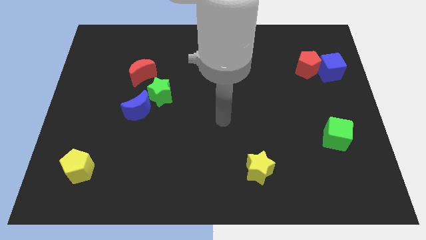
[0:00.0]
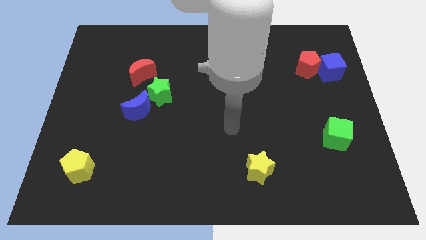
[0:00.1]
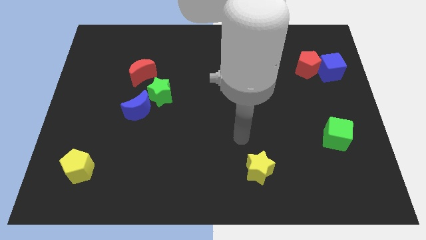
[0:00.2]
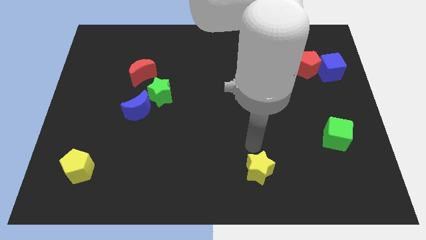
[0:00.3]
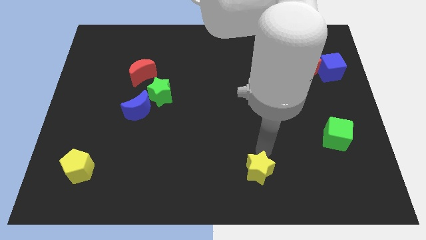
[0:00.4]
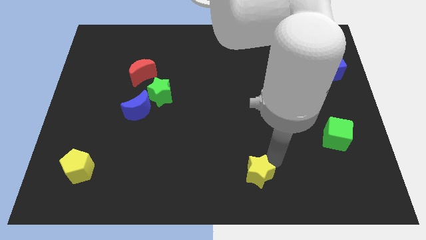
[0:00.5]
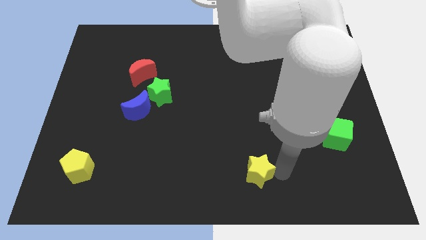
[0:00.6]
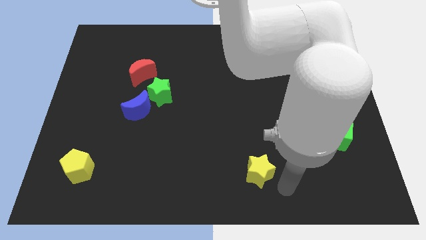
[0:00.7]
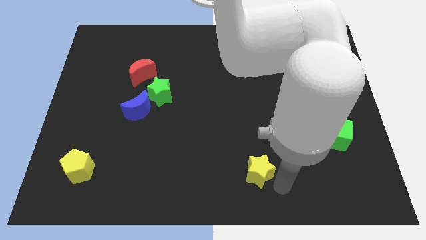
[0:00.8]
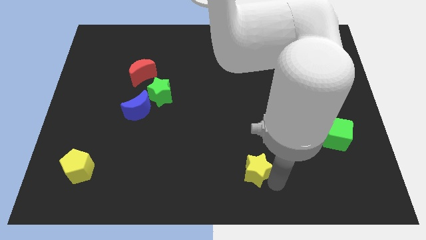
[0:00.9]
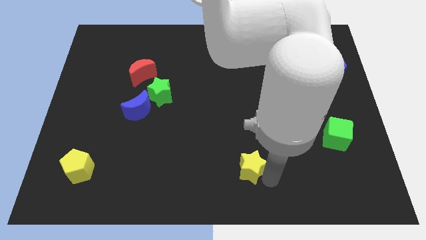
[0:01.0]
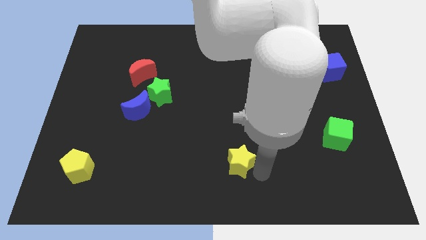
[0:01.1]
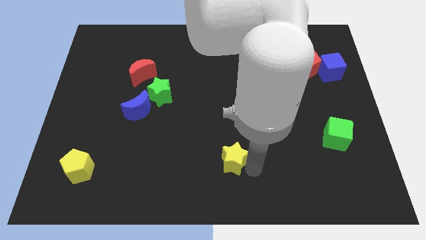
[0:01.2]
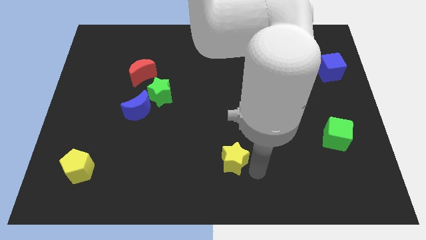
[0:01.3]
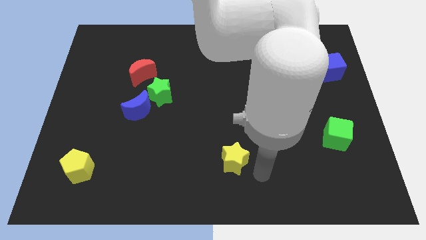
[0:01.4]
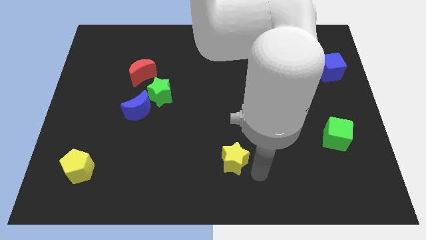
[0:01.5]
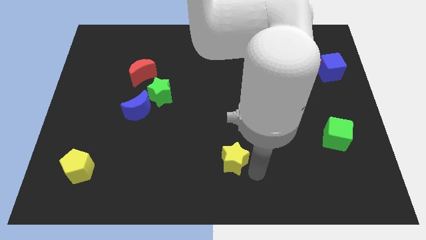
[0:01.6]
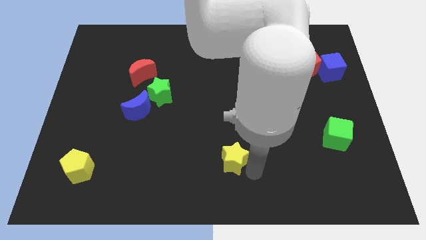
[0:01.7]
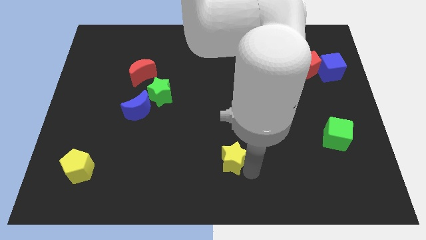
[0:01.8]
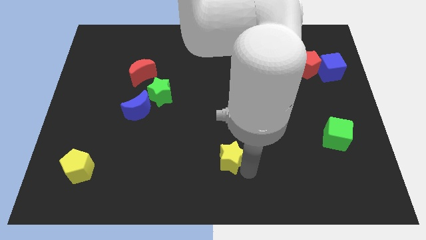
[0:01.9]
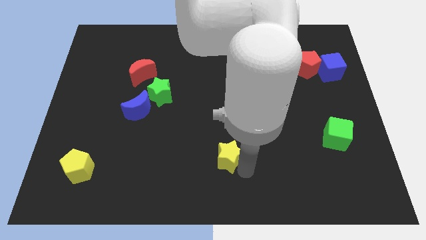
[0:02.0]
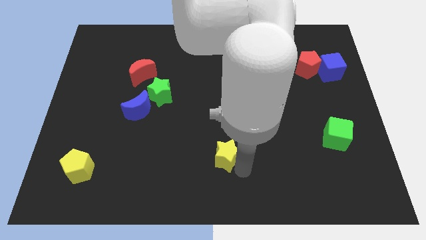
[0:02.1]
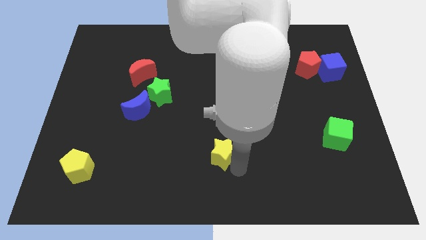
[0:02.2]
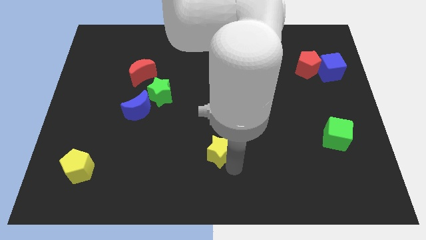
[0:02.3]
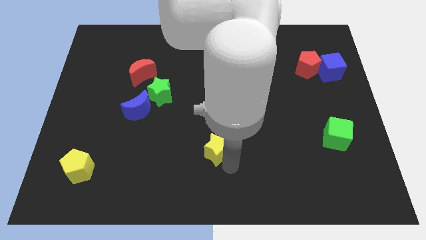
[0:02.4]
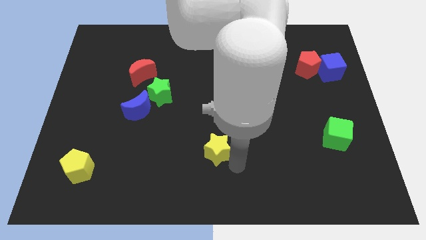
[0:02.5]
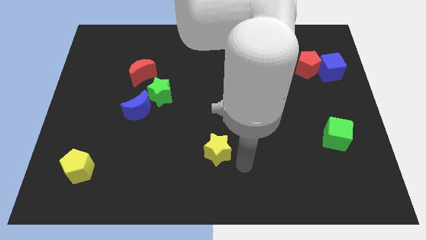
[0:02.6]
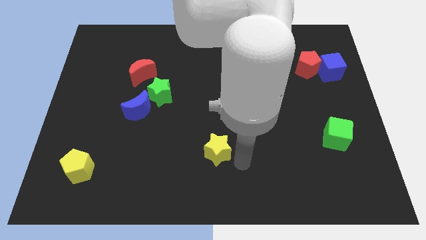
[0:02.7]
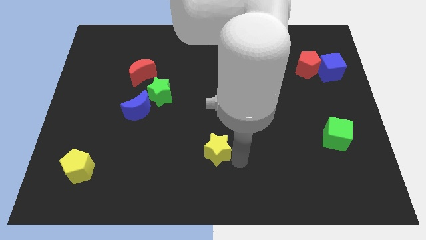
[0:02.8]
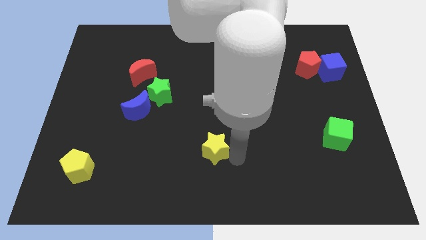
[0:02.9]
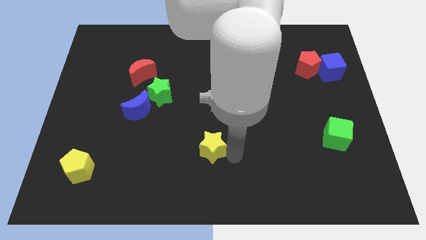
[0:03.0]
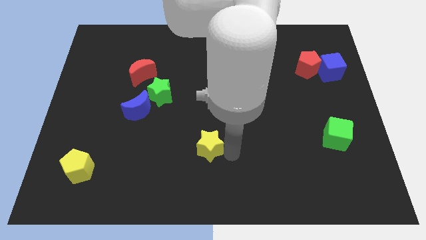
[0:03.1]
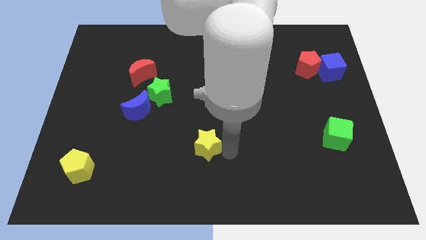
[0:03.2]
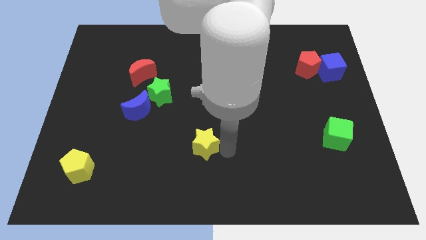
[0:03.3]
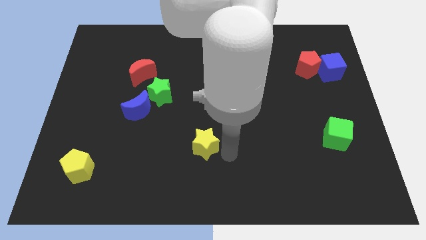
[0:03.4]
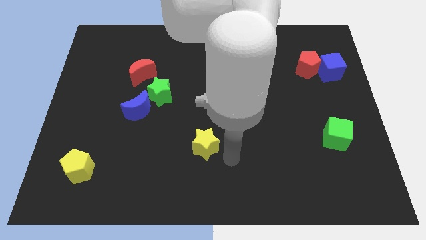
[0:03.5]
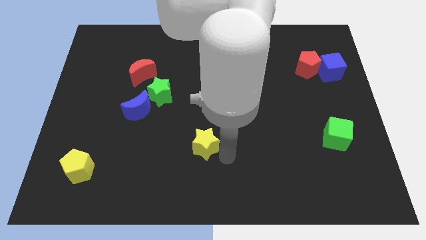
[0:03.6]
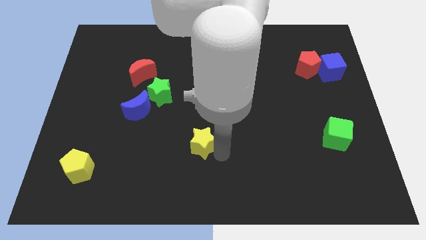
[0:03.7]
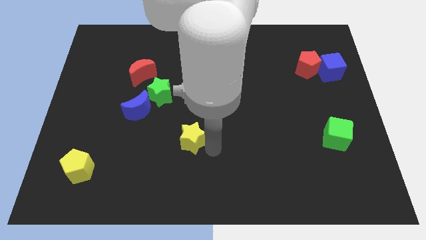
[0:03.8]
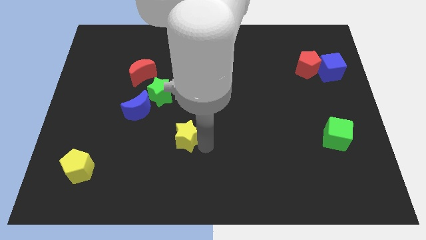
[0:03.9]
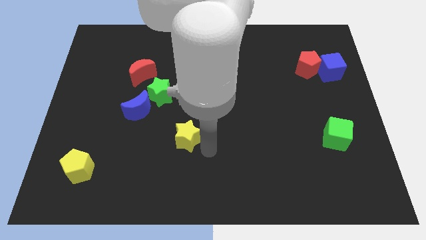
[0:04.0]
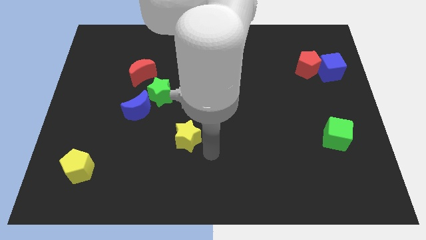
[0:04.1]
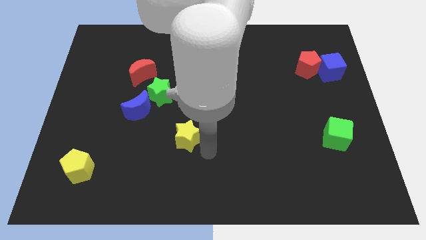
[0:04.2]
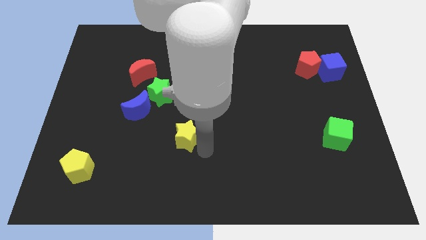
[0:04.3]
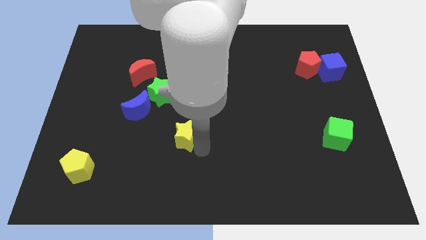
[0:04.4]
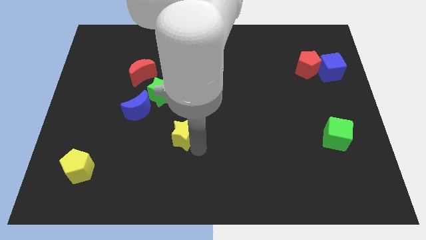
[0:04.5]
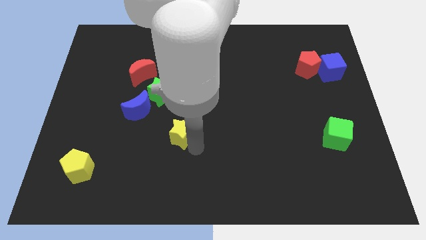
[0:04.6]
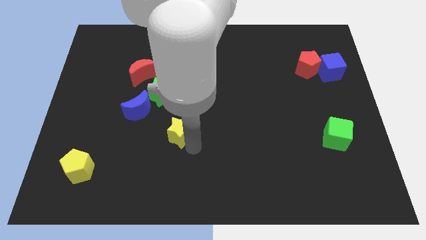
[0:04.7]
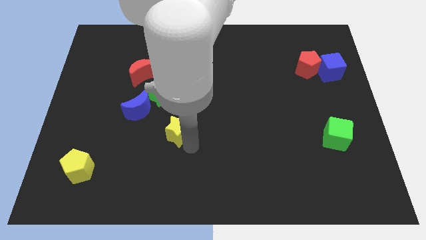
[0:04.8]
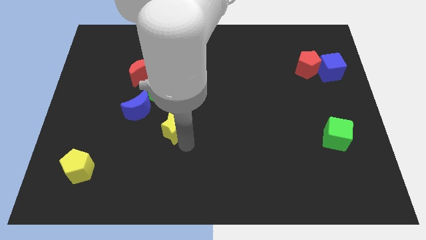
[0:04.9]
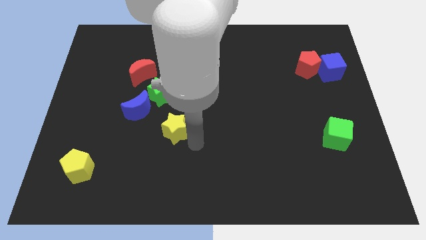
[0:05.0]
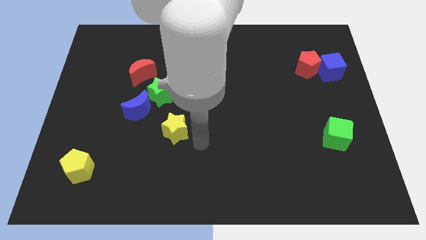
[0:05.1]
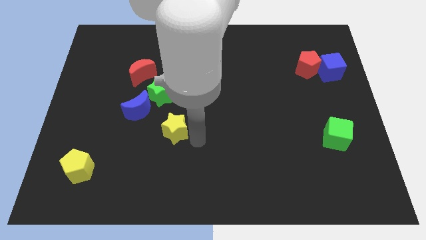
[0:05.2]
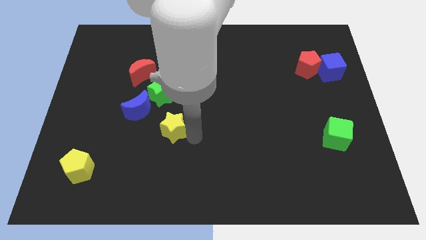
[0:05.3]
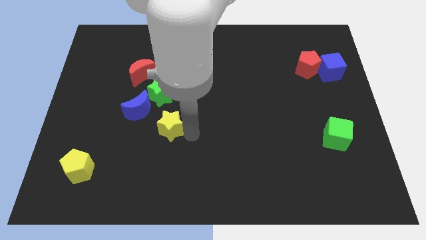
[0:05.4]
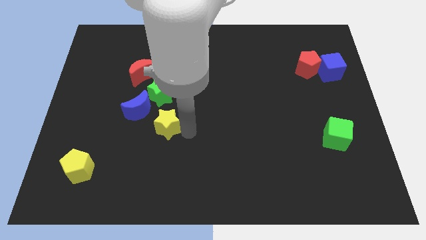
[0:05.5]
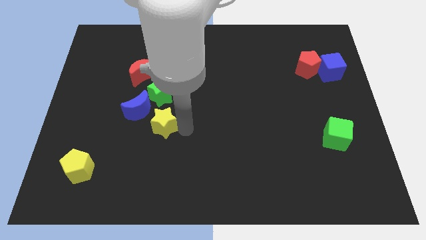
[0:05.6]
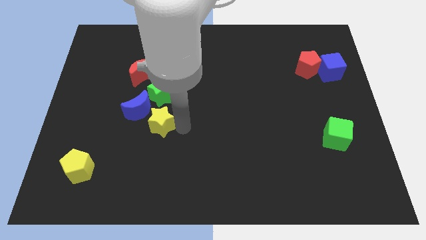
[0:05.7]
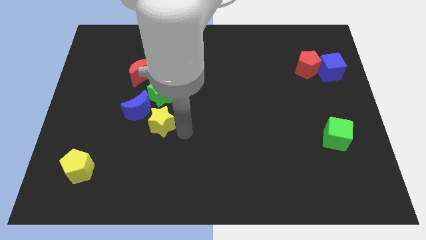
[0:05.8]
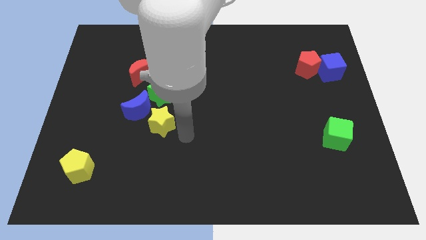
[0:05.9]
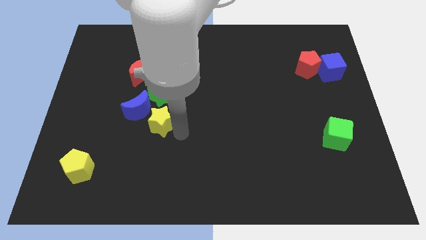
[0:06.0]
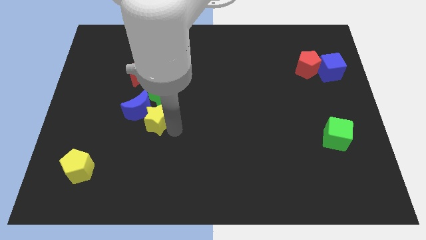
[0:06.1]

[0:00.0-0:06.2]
put the yellow star to the blue moon
